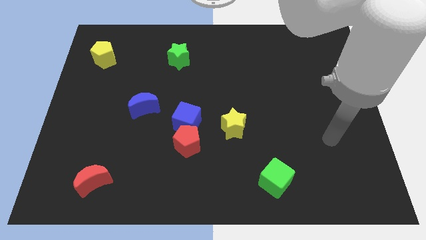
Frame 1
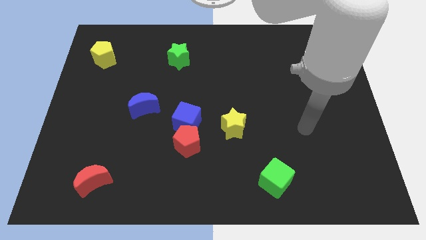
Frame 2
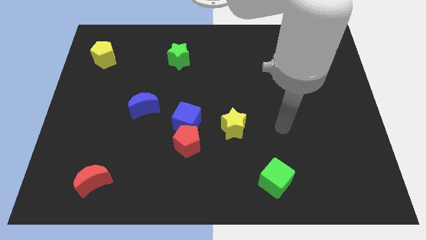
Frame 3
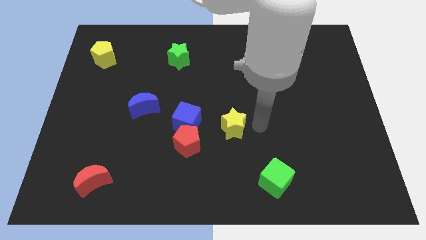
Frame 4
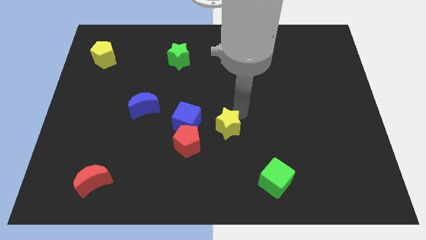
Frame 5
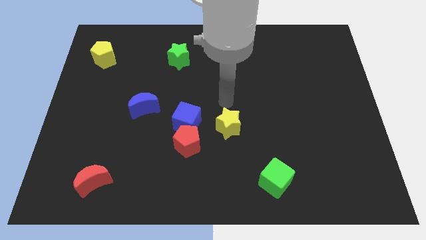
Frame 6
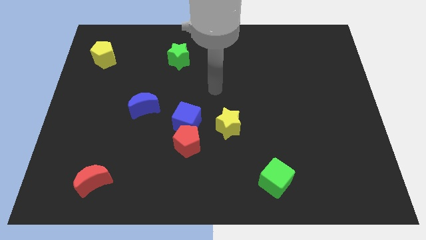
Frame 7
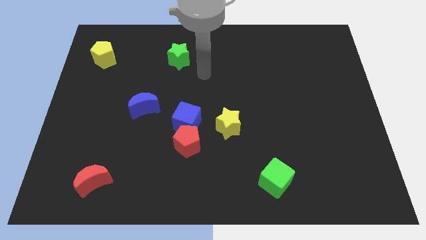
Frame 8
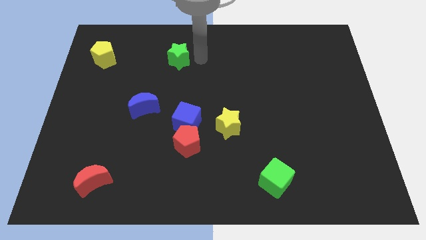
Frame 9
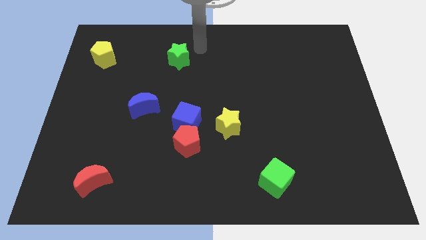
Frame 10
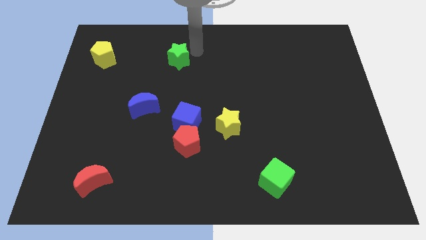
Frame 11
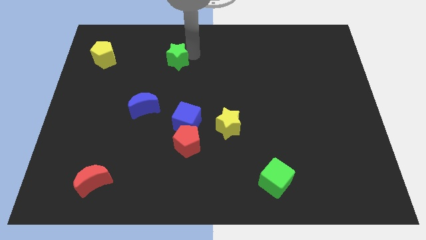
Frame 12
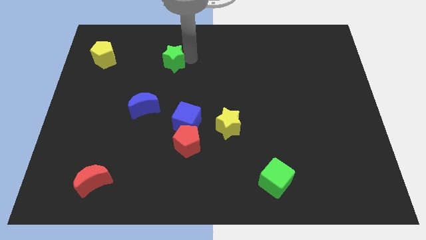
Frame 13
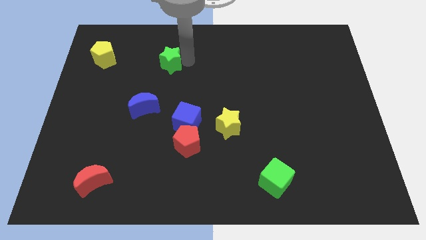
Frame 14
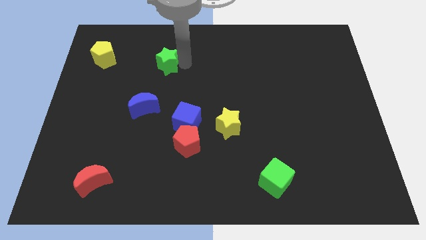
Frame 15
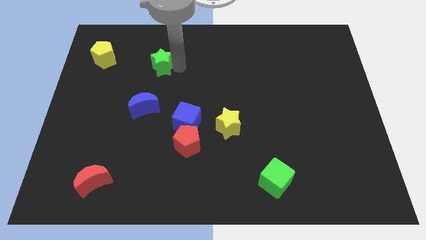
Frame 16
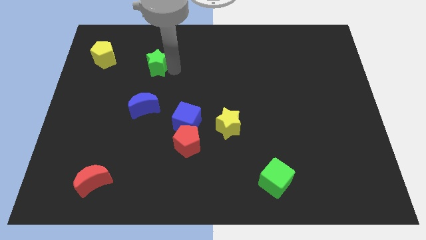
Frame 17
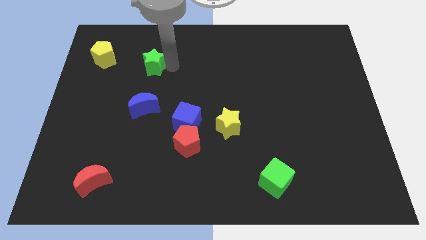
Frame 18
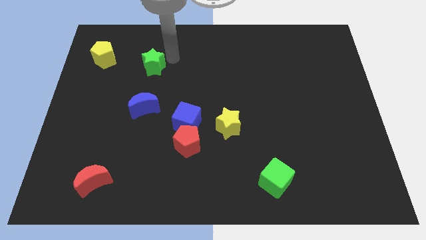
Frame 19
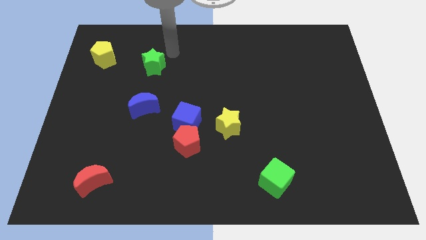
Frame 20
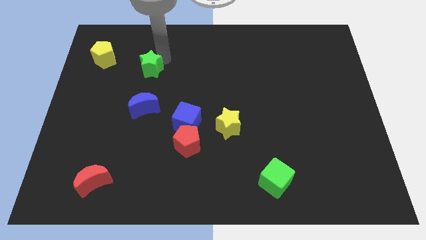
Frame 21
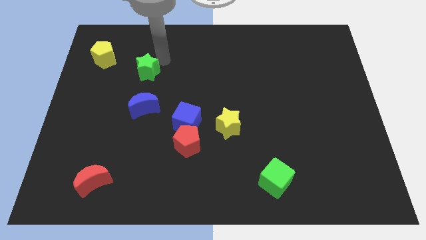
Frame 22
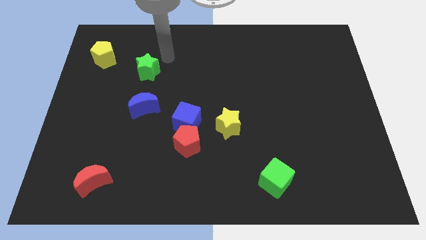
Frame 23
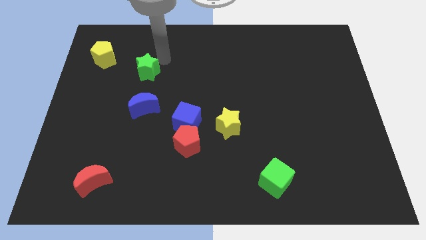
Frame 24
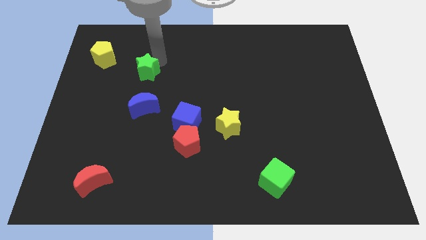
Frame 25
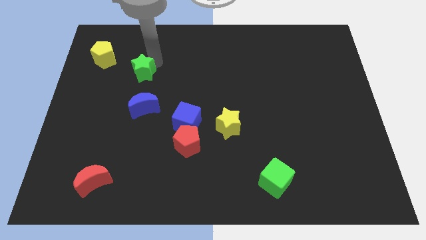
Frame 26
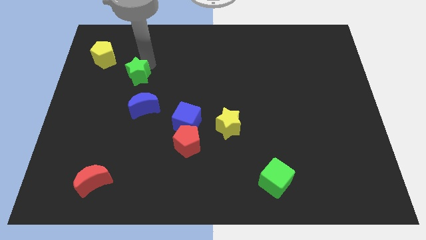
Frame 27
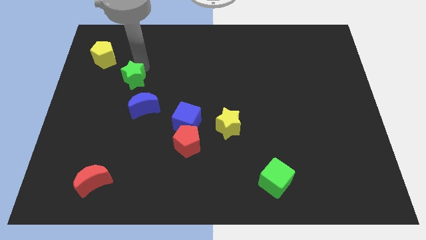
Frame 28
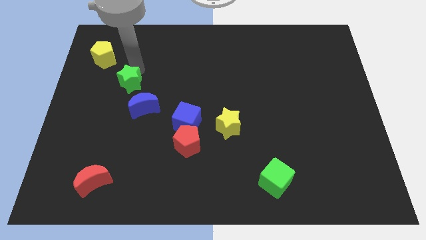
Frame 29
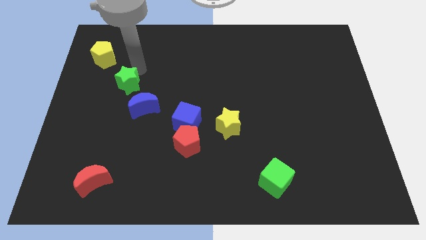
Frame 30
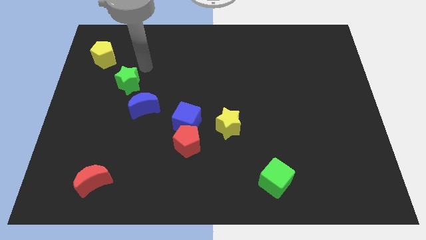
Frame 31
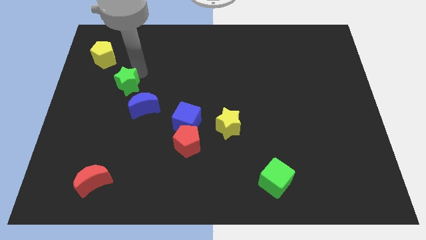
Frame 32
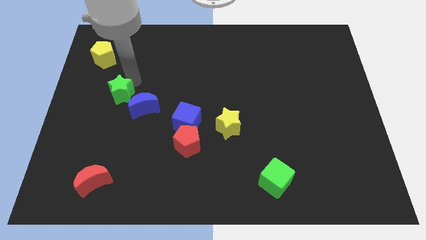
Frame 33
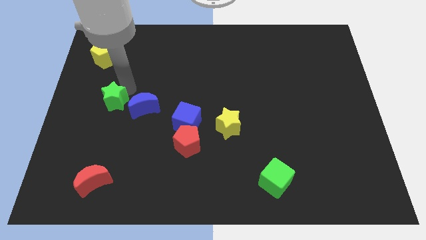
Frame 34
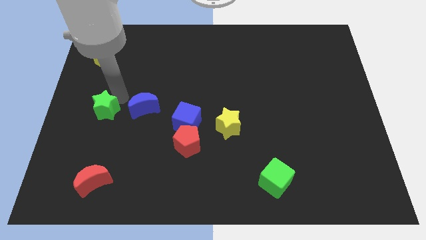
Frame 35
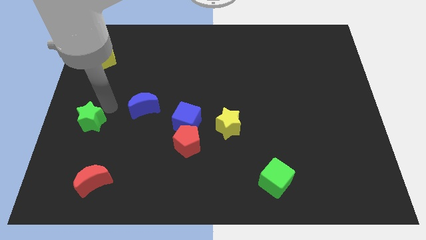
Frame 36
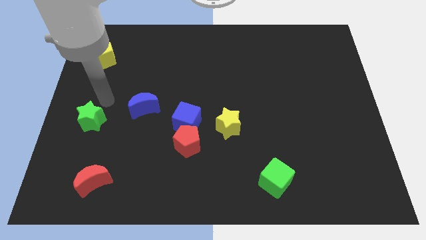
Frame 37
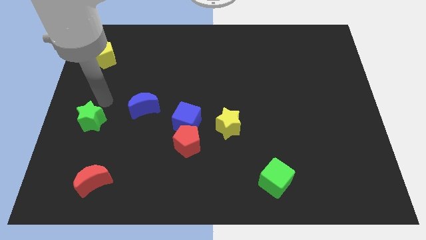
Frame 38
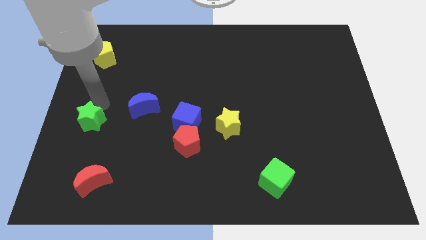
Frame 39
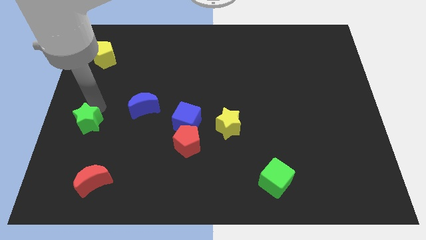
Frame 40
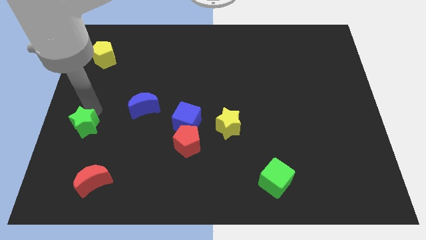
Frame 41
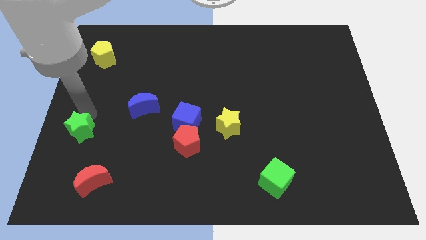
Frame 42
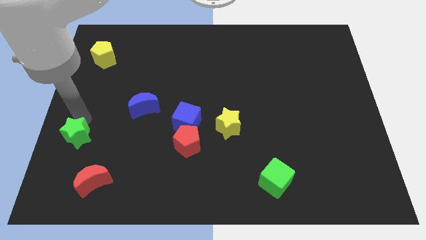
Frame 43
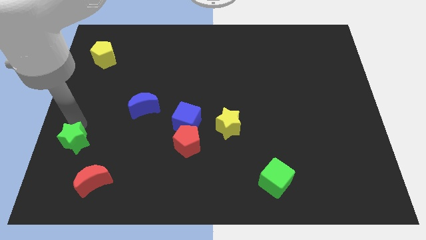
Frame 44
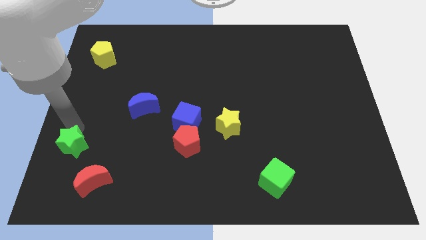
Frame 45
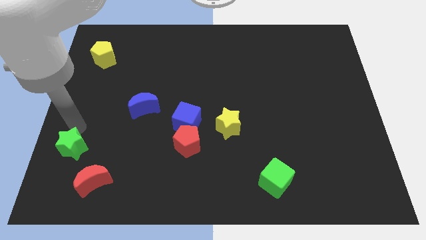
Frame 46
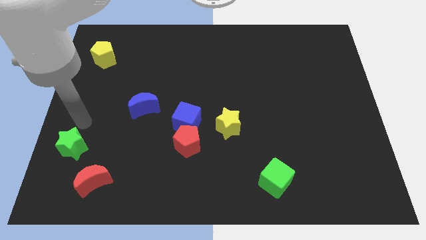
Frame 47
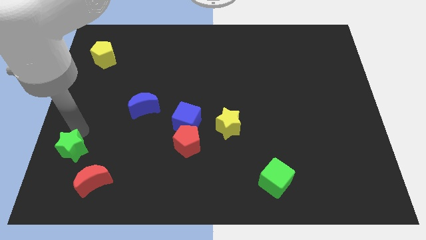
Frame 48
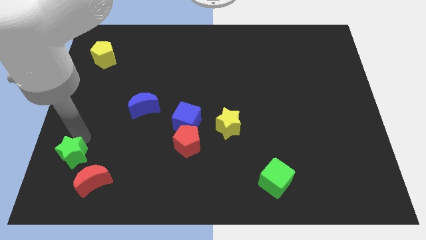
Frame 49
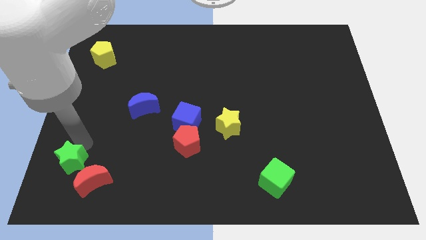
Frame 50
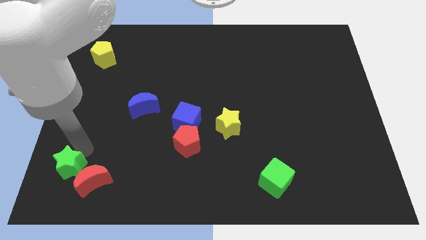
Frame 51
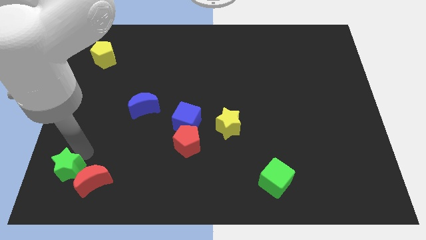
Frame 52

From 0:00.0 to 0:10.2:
move the green star to the bottom left

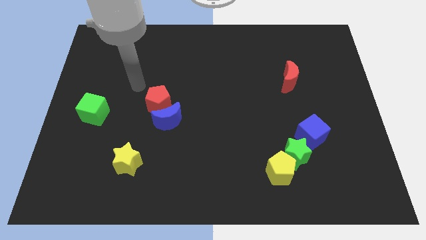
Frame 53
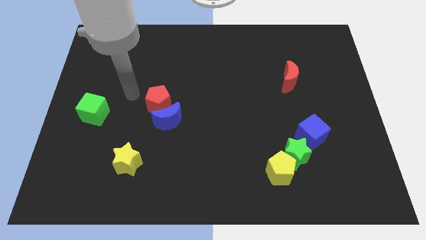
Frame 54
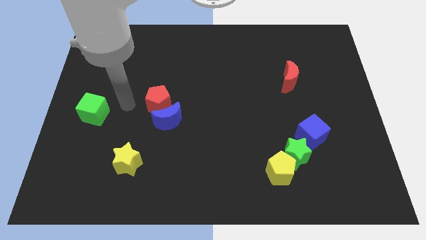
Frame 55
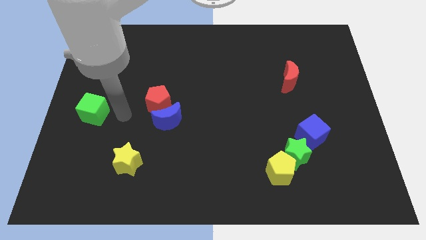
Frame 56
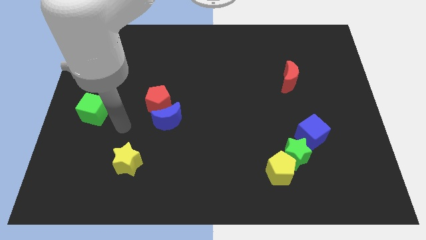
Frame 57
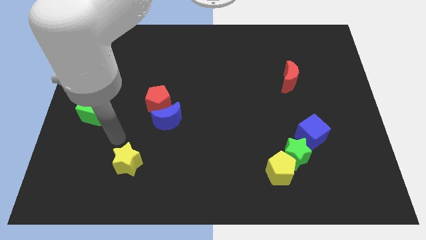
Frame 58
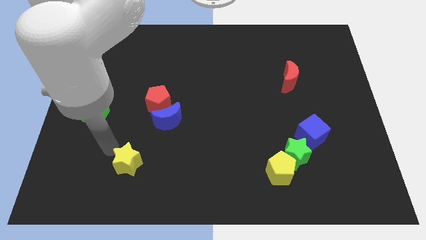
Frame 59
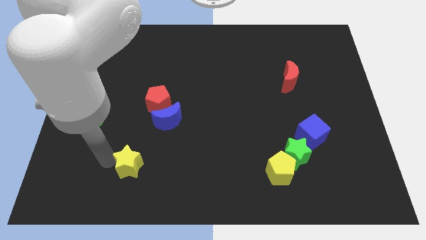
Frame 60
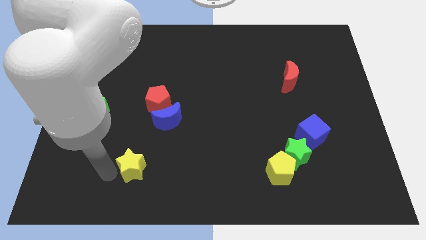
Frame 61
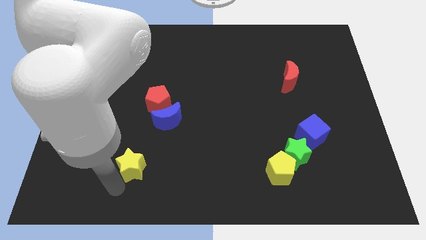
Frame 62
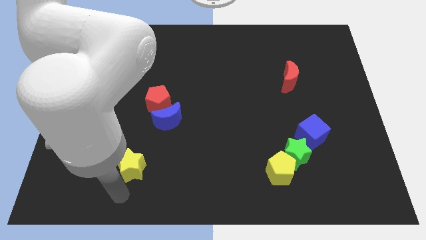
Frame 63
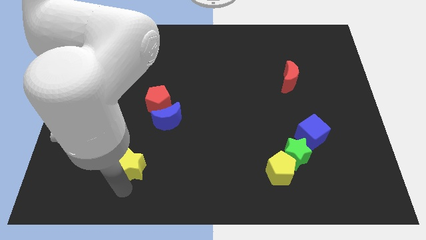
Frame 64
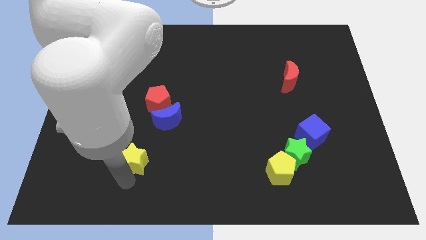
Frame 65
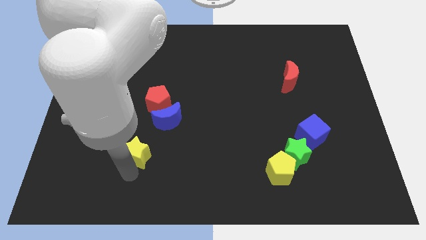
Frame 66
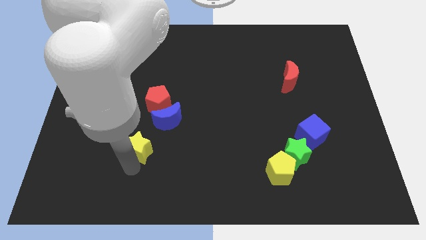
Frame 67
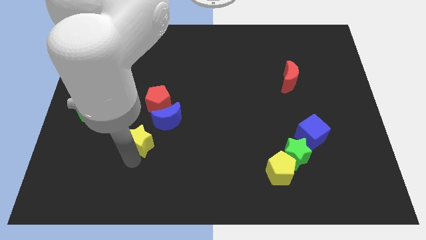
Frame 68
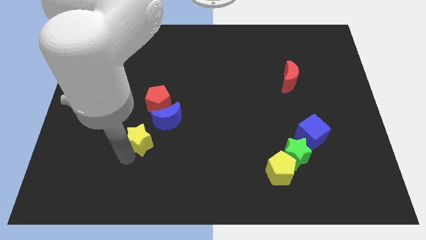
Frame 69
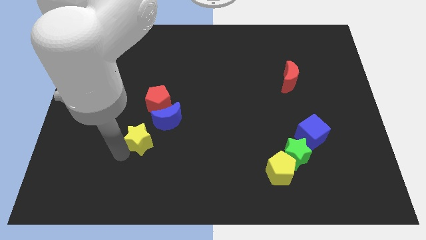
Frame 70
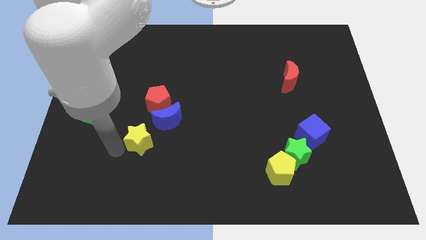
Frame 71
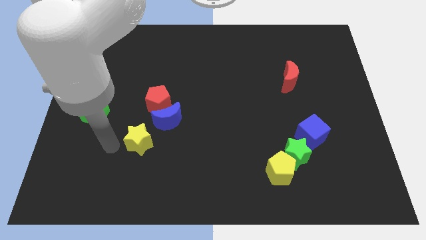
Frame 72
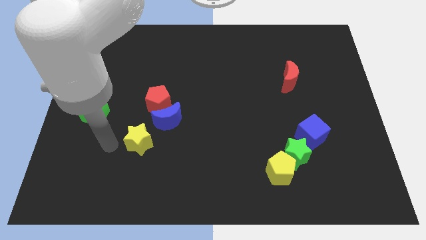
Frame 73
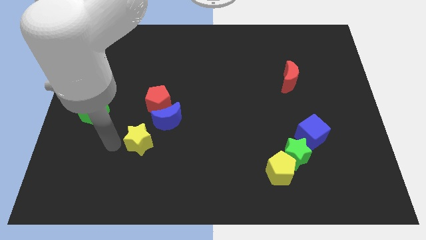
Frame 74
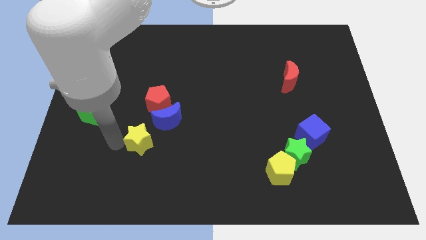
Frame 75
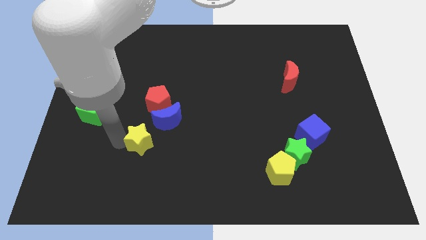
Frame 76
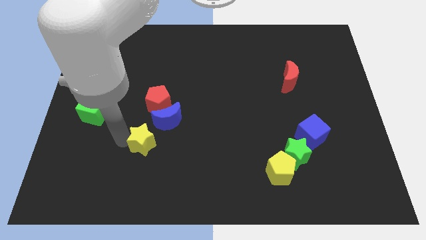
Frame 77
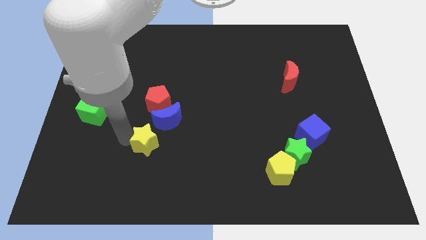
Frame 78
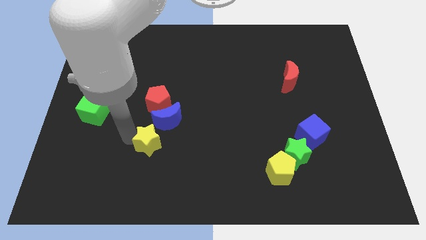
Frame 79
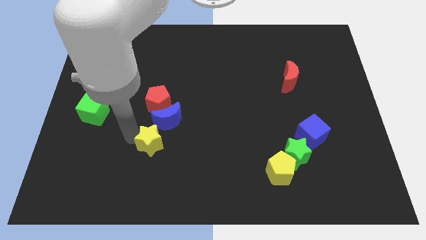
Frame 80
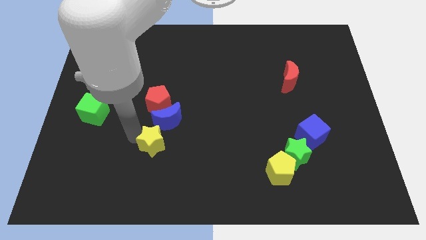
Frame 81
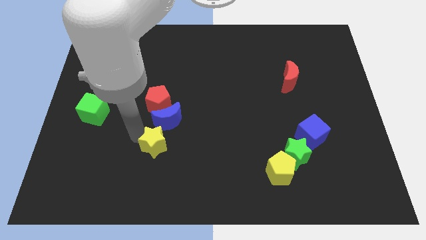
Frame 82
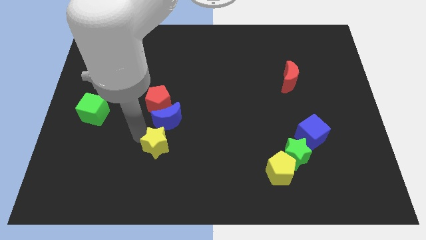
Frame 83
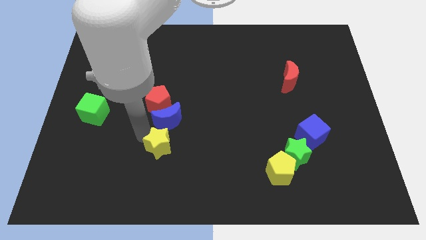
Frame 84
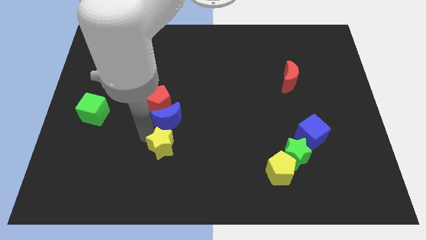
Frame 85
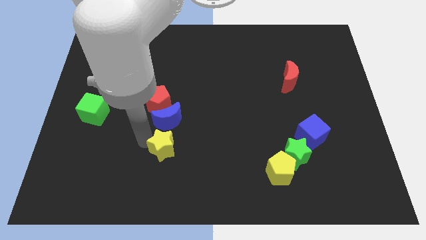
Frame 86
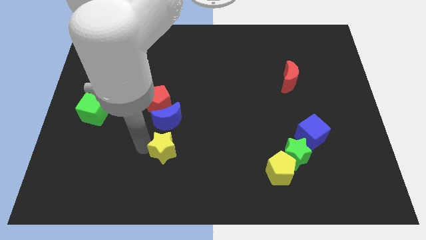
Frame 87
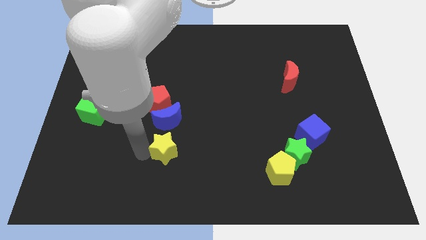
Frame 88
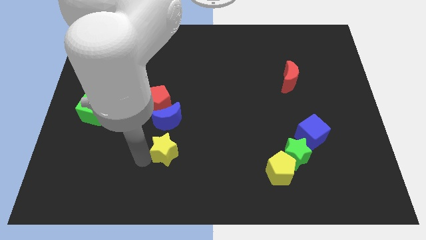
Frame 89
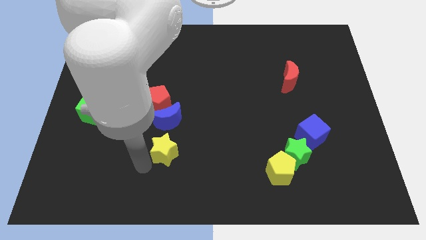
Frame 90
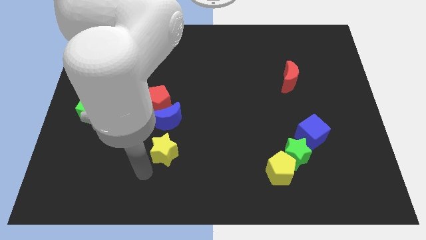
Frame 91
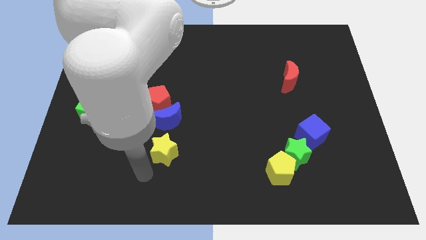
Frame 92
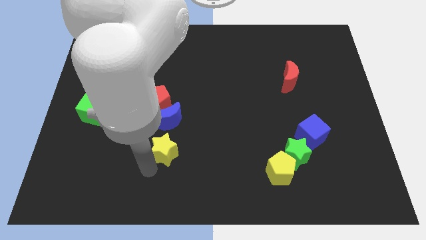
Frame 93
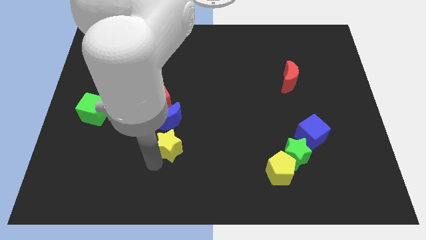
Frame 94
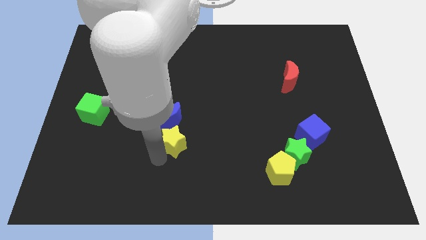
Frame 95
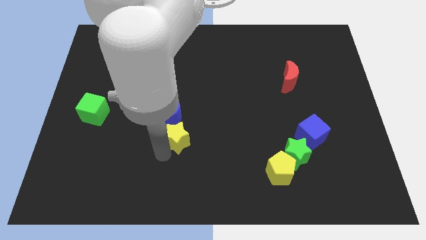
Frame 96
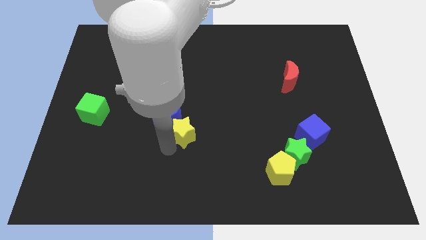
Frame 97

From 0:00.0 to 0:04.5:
push the yellow star to the center
